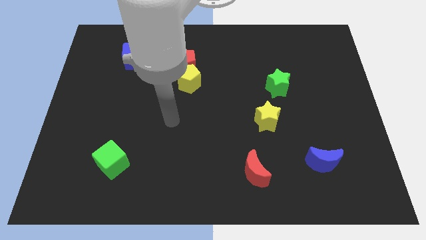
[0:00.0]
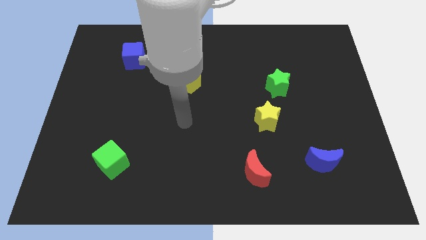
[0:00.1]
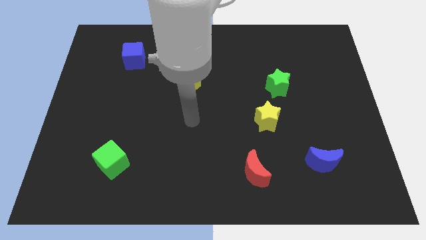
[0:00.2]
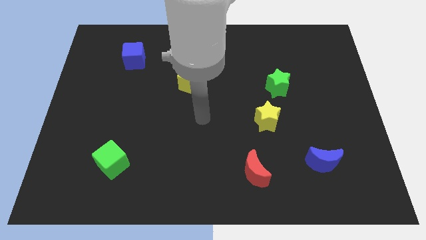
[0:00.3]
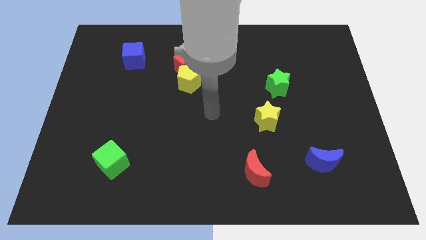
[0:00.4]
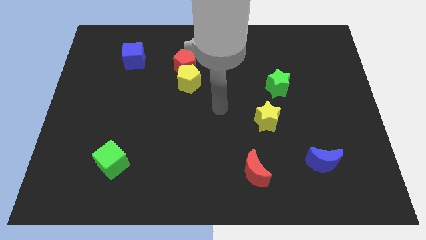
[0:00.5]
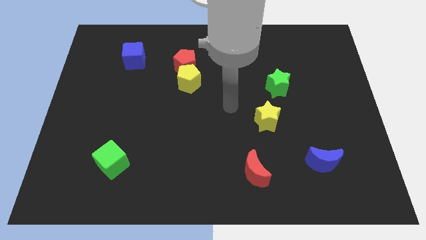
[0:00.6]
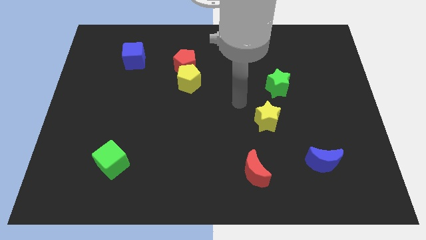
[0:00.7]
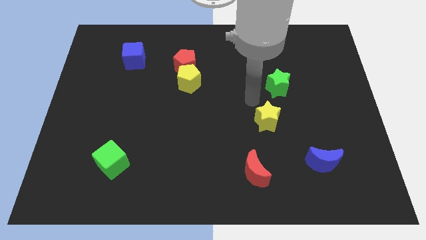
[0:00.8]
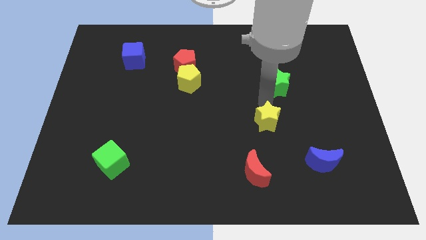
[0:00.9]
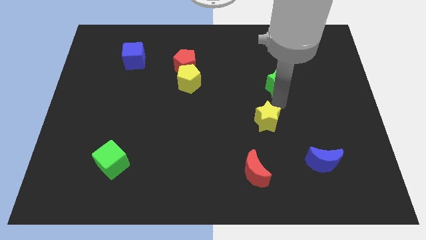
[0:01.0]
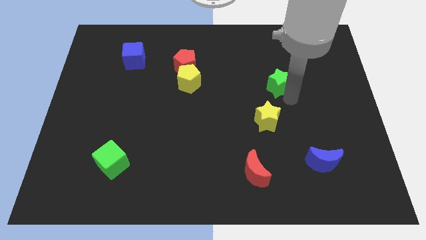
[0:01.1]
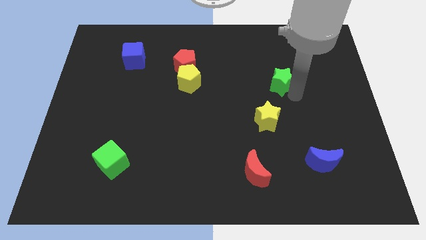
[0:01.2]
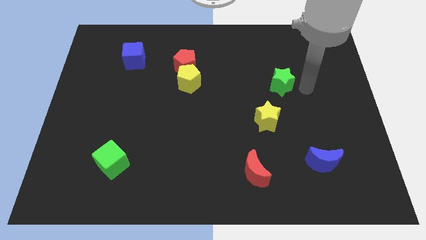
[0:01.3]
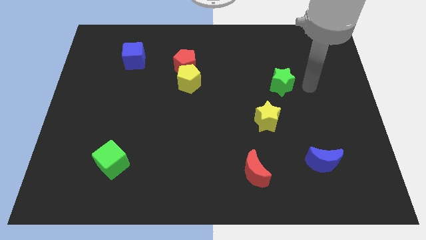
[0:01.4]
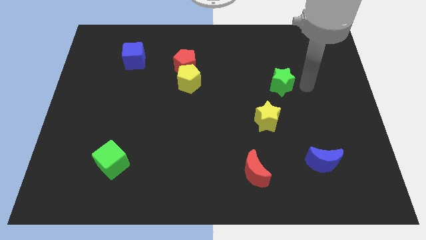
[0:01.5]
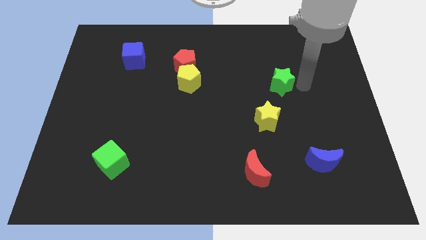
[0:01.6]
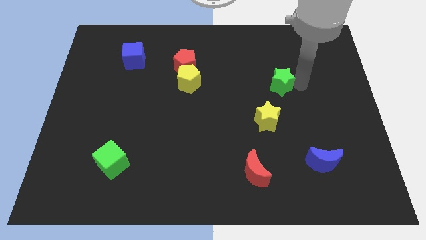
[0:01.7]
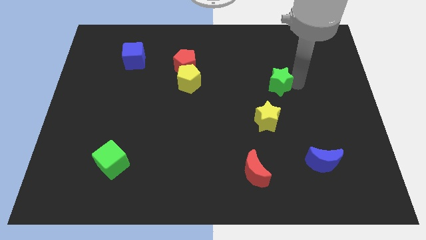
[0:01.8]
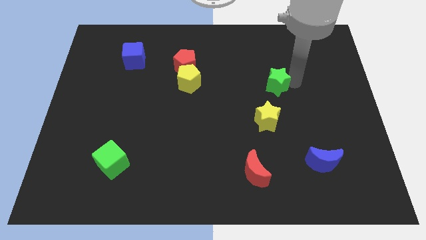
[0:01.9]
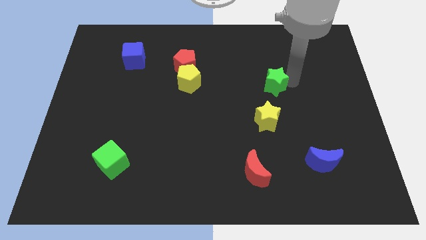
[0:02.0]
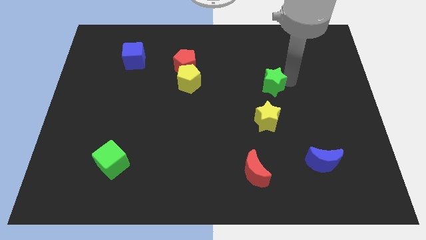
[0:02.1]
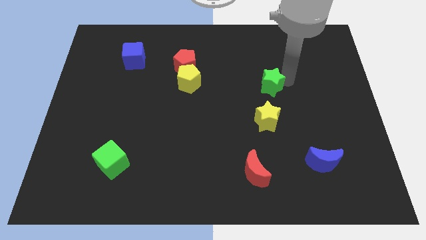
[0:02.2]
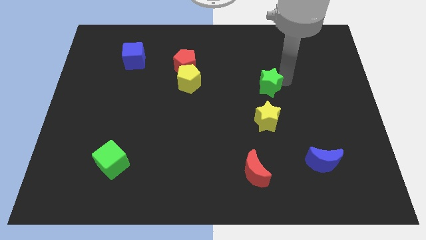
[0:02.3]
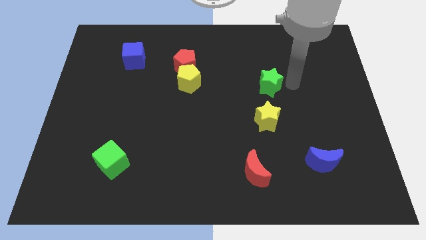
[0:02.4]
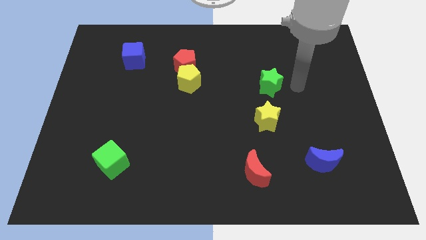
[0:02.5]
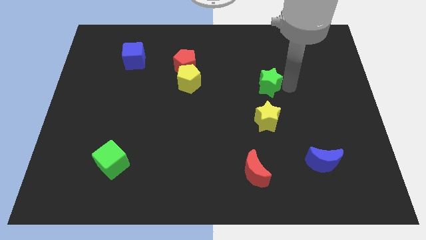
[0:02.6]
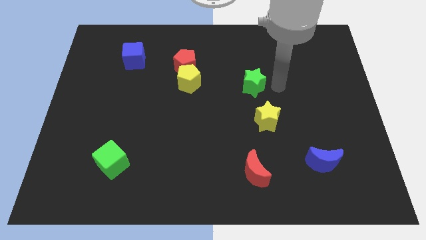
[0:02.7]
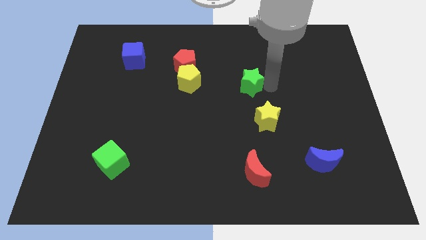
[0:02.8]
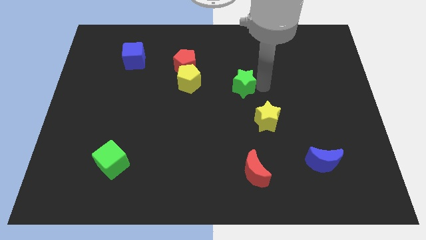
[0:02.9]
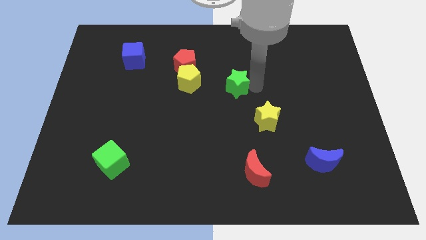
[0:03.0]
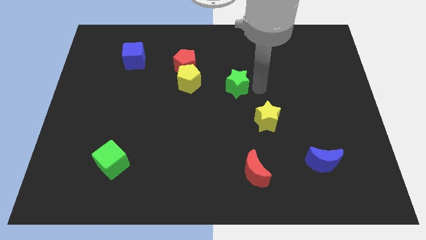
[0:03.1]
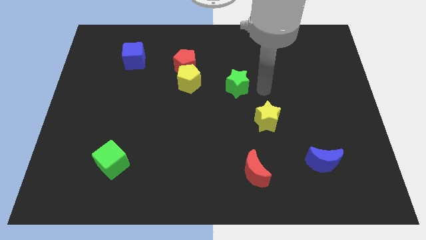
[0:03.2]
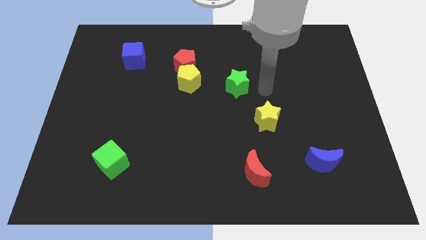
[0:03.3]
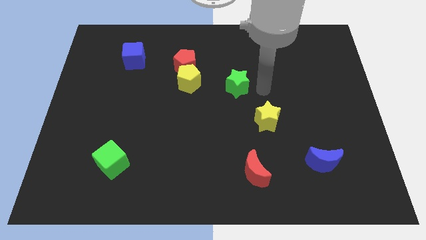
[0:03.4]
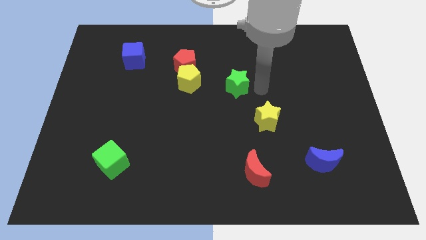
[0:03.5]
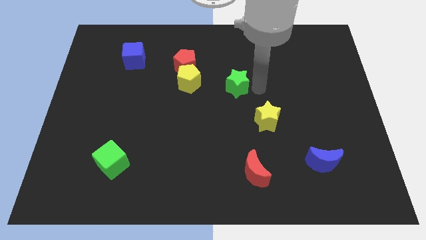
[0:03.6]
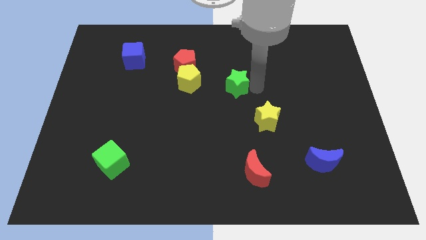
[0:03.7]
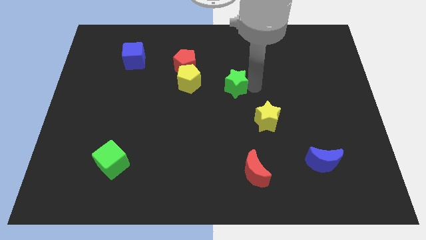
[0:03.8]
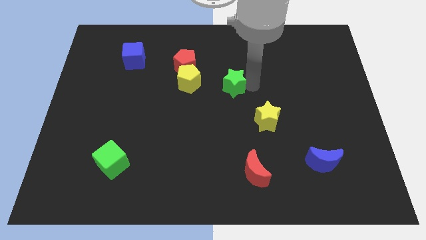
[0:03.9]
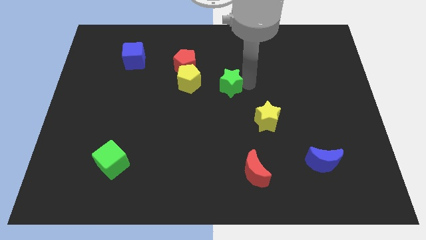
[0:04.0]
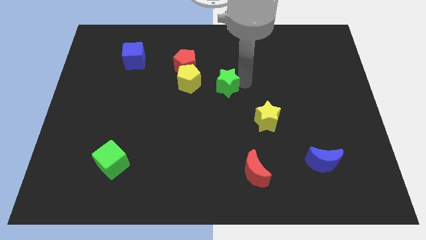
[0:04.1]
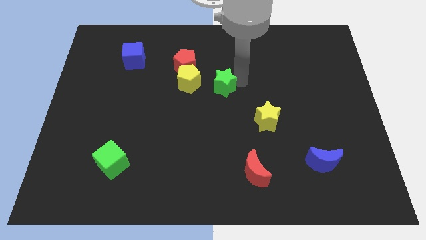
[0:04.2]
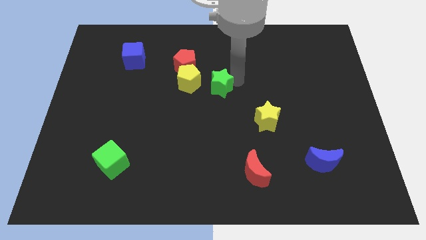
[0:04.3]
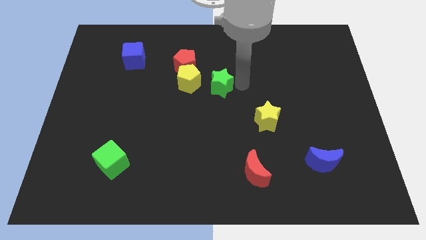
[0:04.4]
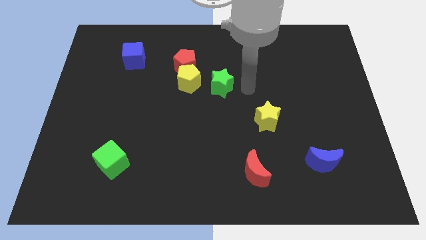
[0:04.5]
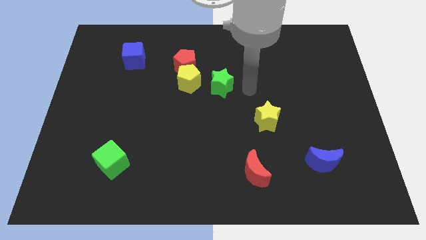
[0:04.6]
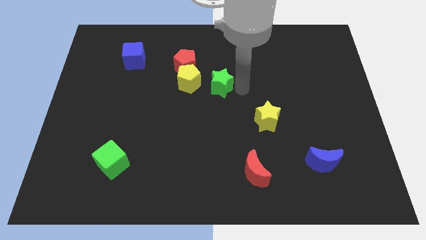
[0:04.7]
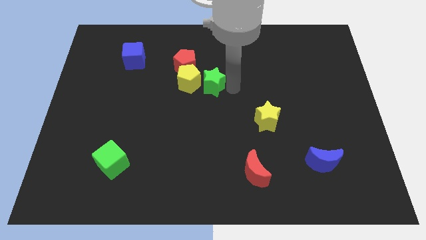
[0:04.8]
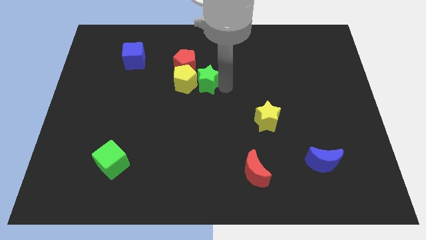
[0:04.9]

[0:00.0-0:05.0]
slide the green star next to the yellow pentagon

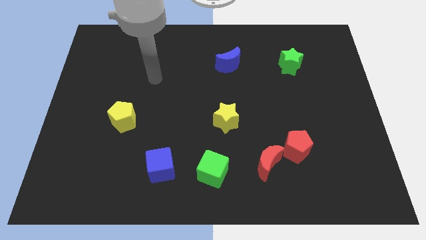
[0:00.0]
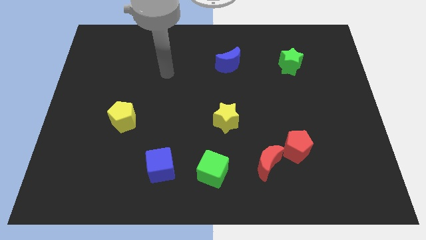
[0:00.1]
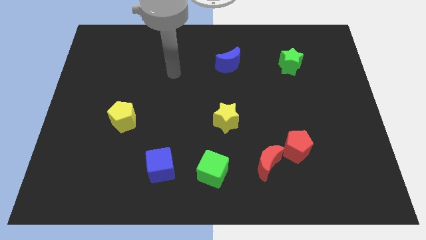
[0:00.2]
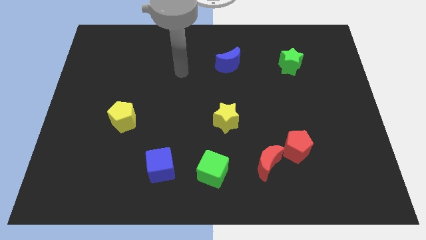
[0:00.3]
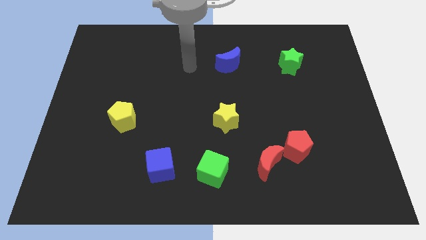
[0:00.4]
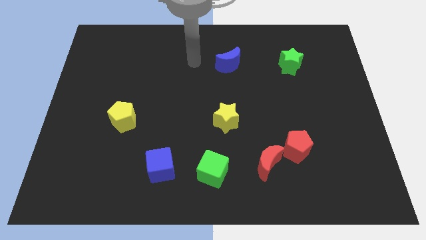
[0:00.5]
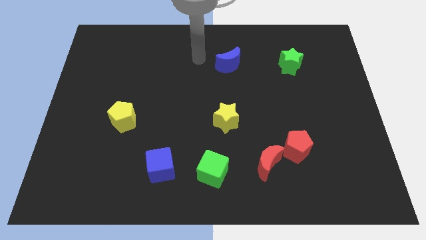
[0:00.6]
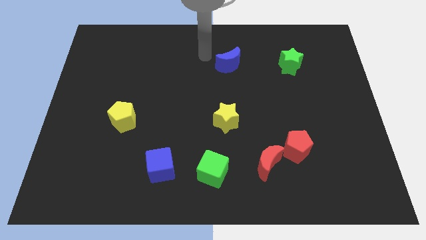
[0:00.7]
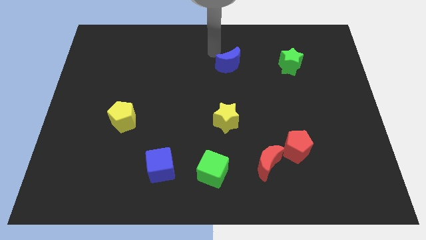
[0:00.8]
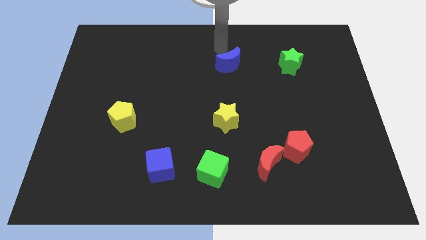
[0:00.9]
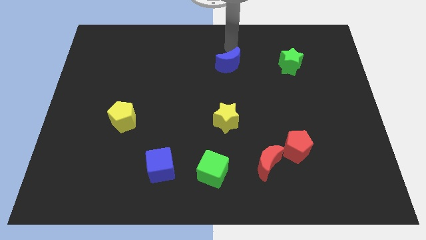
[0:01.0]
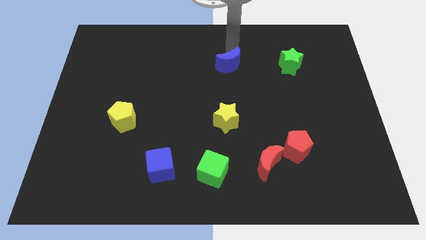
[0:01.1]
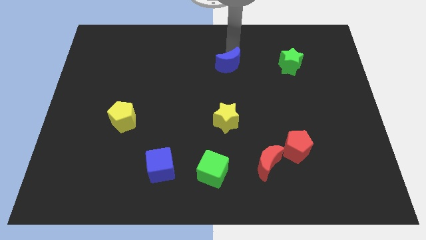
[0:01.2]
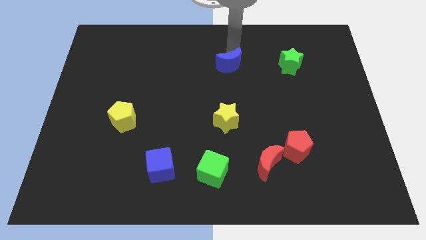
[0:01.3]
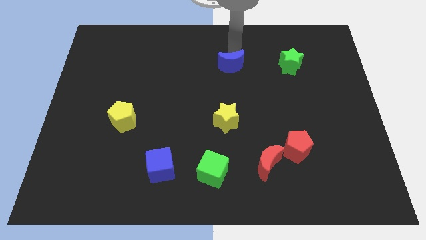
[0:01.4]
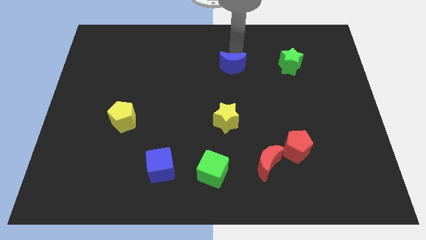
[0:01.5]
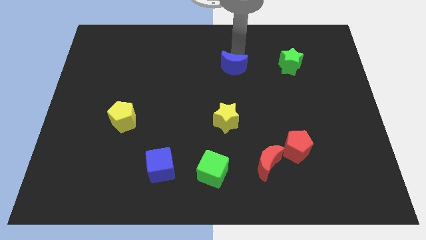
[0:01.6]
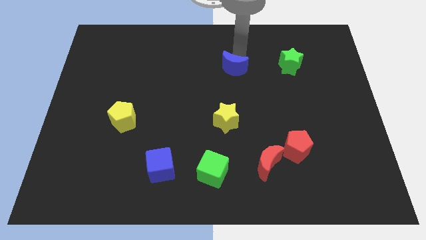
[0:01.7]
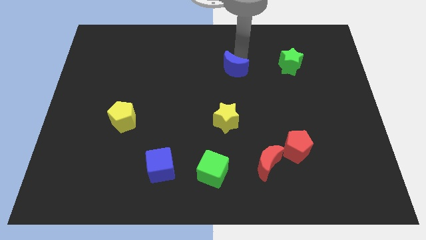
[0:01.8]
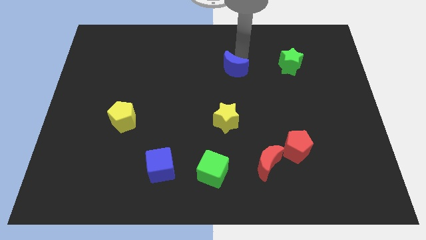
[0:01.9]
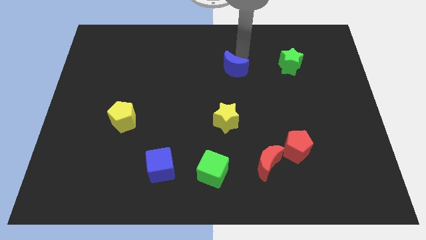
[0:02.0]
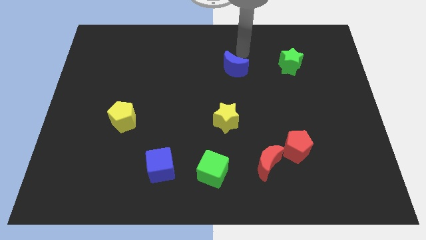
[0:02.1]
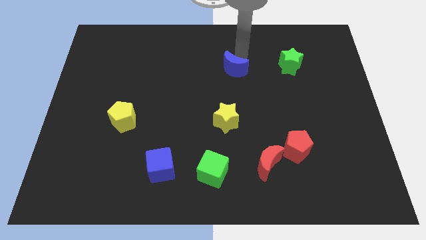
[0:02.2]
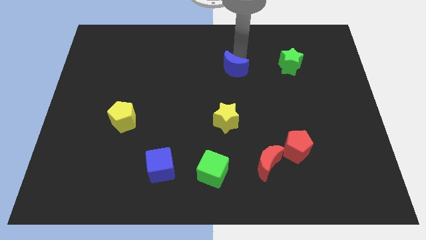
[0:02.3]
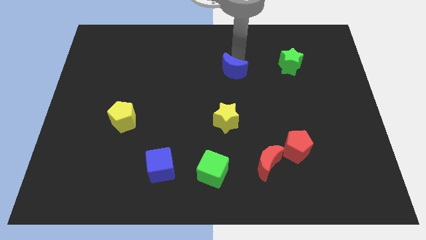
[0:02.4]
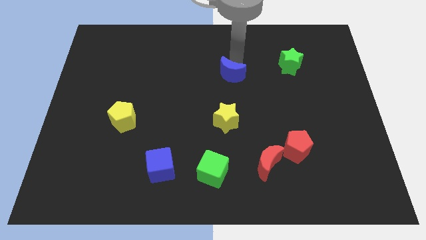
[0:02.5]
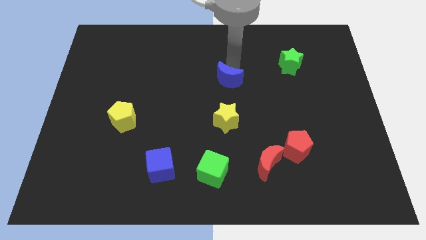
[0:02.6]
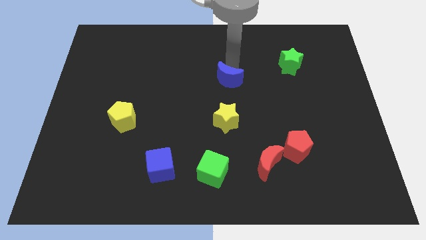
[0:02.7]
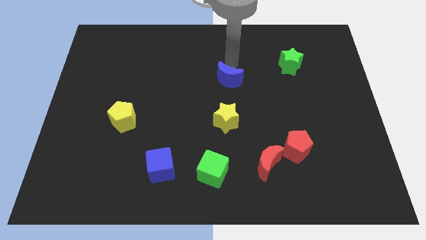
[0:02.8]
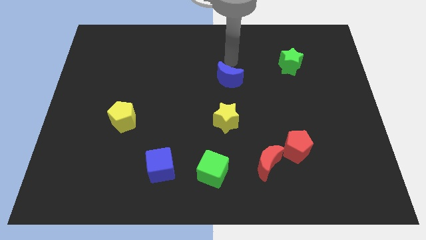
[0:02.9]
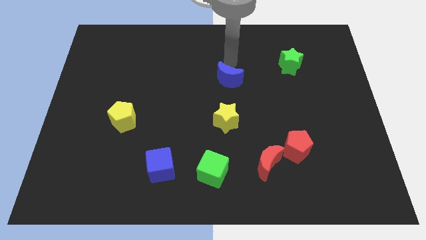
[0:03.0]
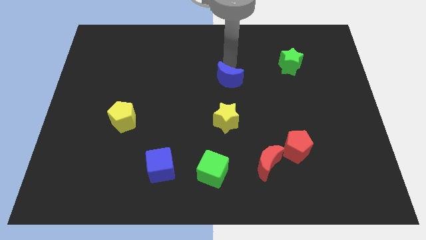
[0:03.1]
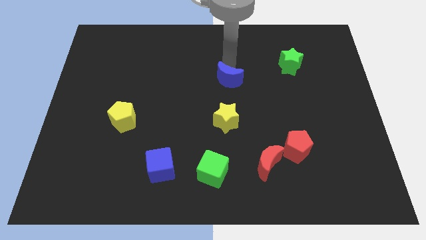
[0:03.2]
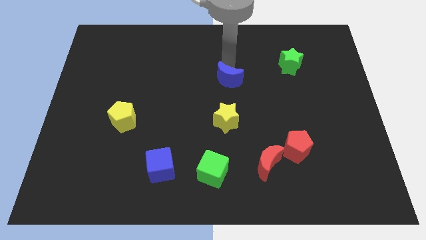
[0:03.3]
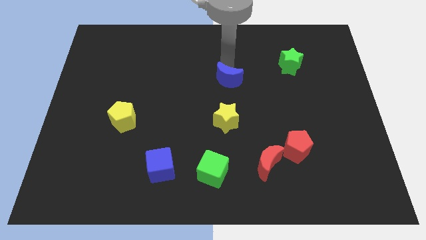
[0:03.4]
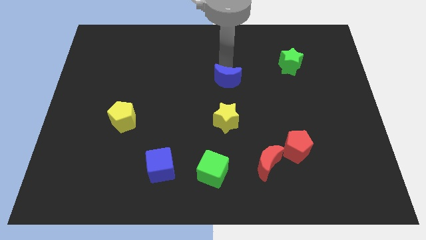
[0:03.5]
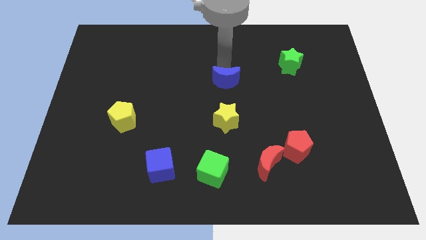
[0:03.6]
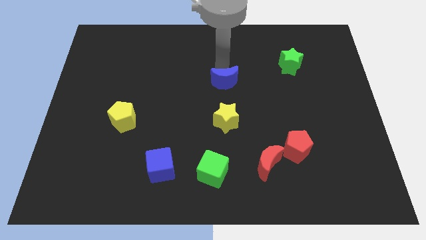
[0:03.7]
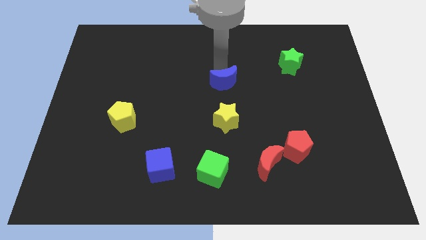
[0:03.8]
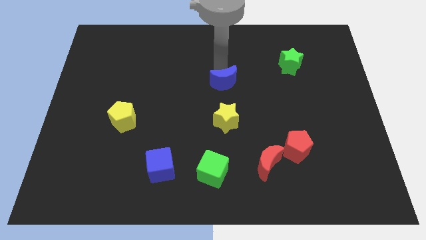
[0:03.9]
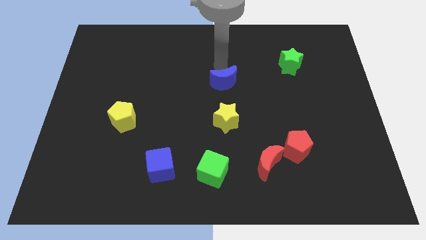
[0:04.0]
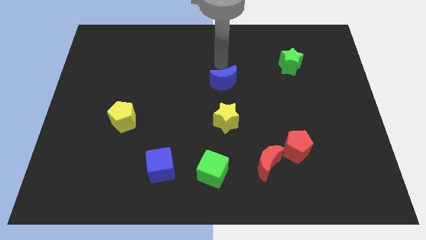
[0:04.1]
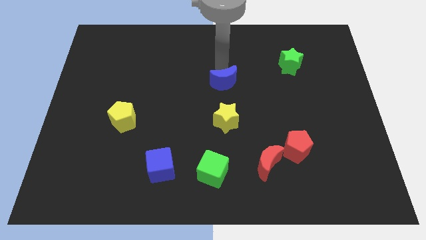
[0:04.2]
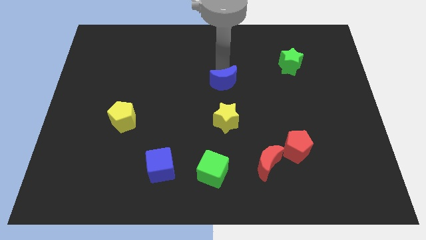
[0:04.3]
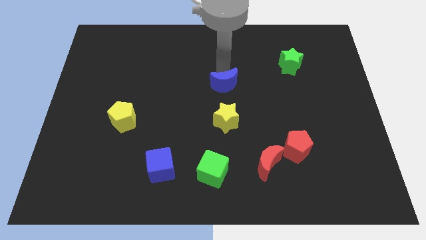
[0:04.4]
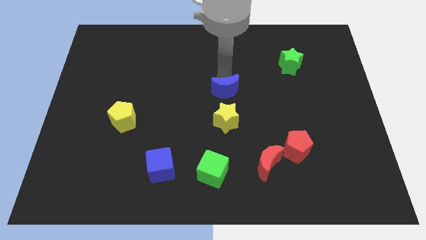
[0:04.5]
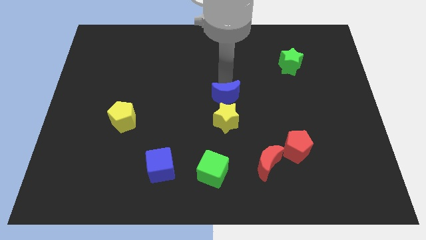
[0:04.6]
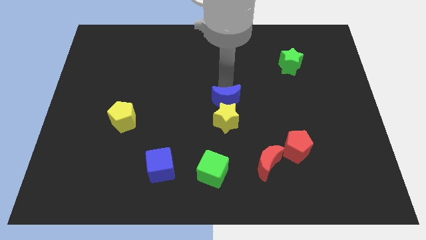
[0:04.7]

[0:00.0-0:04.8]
slide the blue moon close to the yellow star
